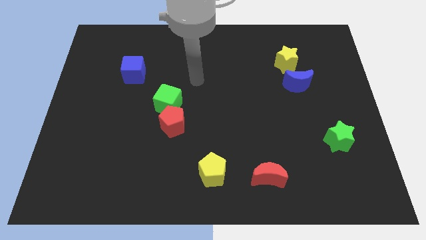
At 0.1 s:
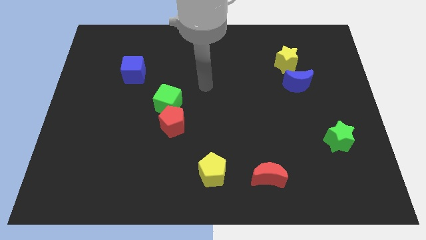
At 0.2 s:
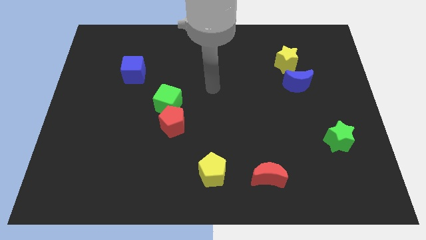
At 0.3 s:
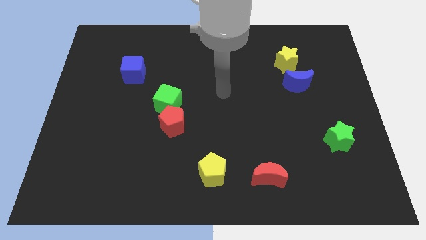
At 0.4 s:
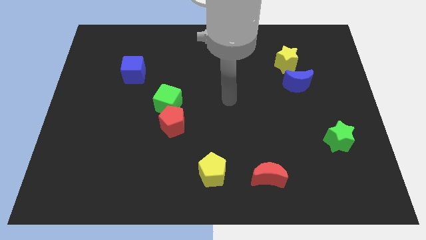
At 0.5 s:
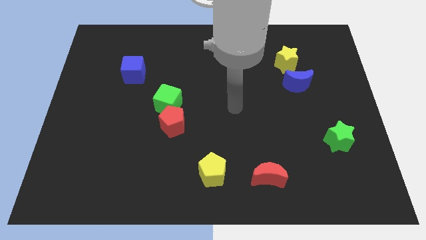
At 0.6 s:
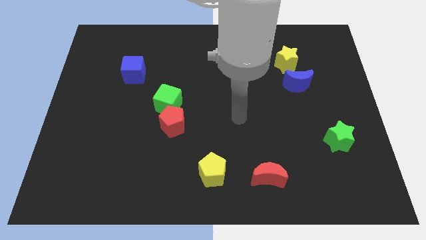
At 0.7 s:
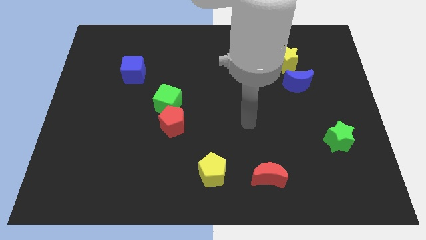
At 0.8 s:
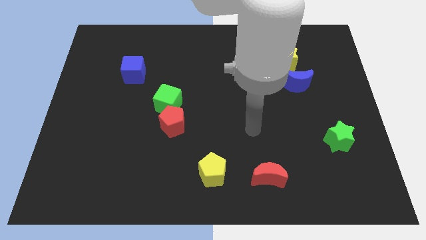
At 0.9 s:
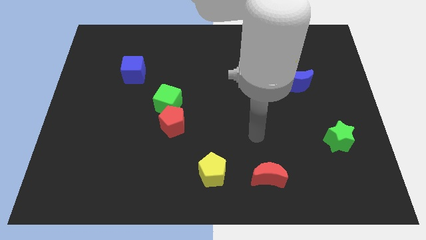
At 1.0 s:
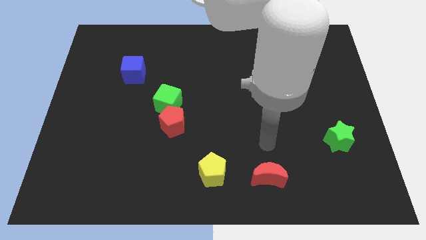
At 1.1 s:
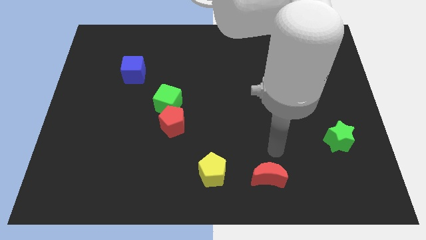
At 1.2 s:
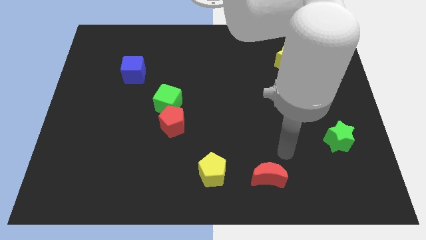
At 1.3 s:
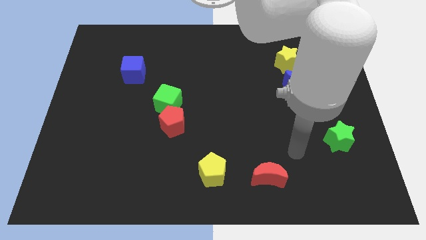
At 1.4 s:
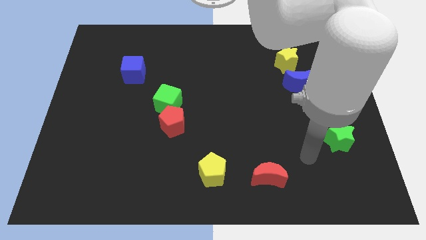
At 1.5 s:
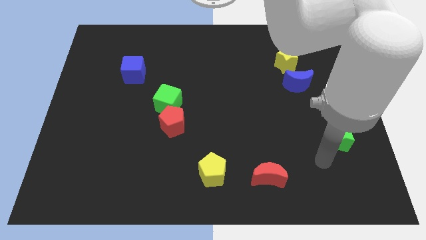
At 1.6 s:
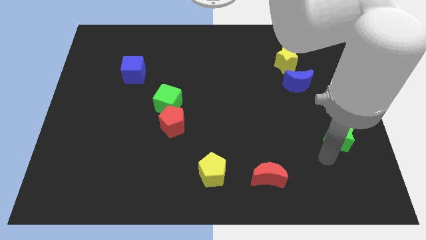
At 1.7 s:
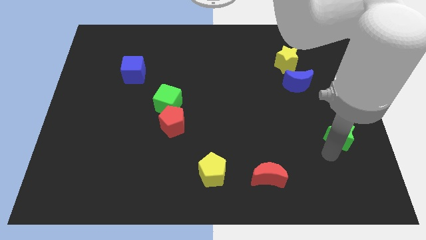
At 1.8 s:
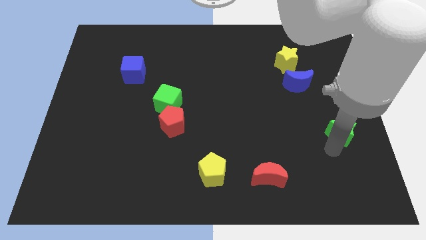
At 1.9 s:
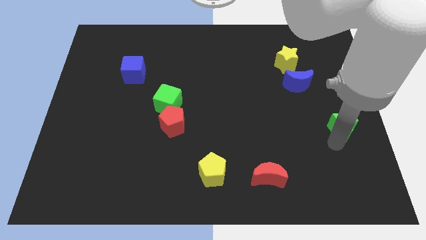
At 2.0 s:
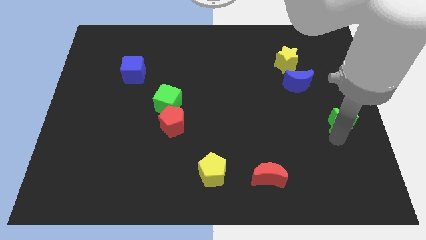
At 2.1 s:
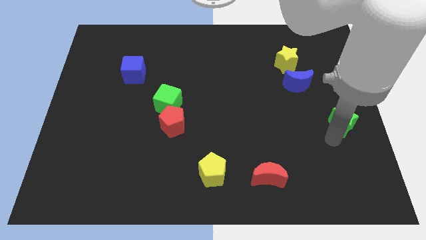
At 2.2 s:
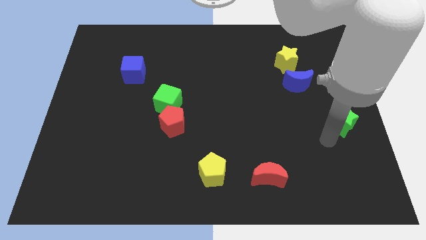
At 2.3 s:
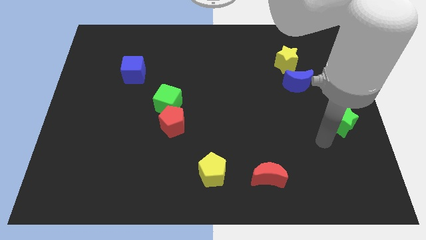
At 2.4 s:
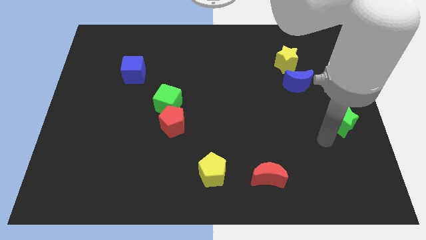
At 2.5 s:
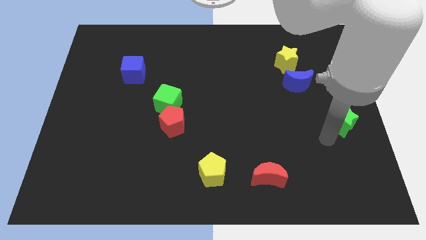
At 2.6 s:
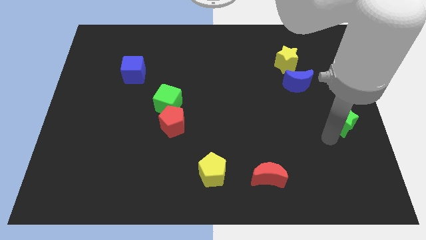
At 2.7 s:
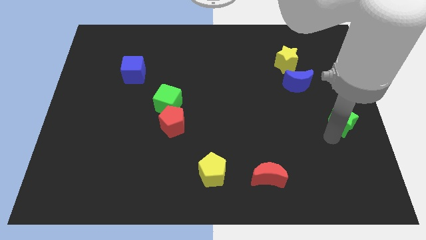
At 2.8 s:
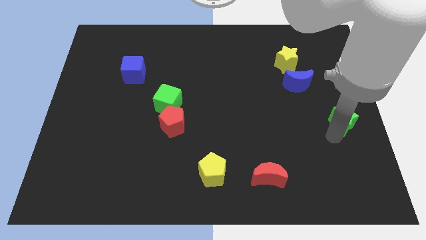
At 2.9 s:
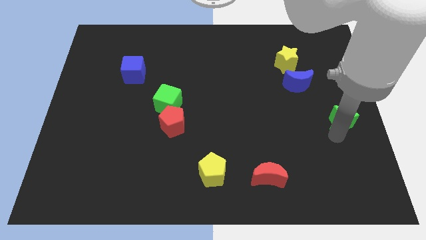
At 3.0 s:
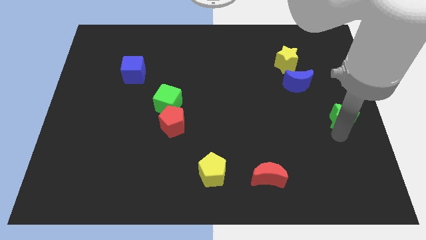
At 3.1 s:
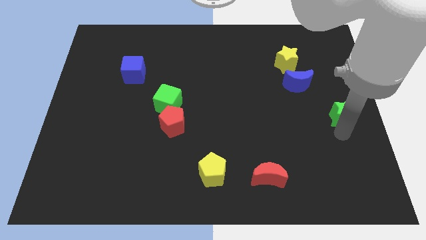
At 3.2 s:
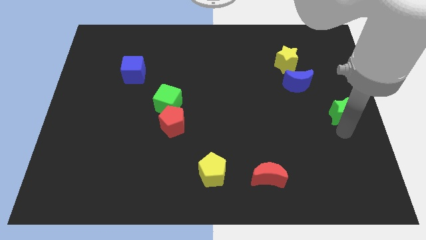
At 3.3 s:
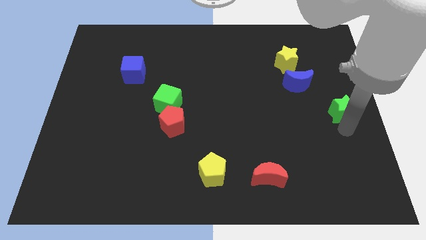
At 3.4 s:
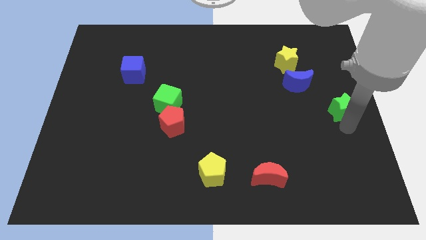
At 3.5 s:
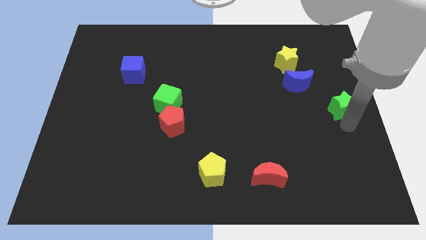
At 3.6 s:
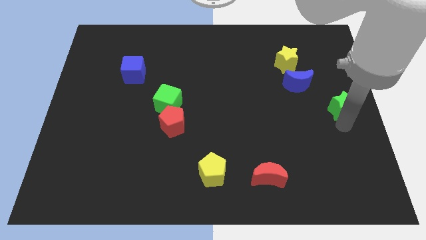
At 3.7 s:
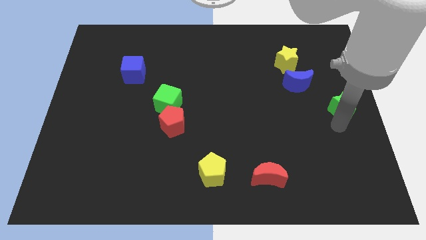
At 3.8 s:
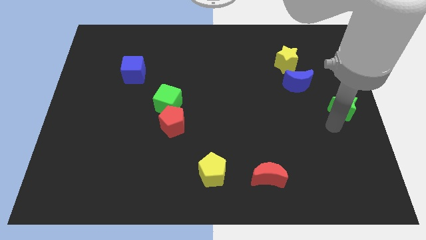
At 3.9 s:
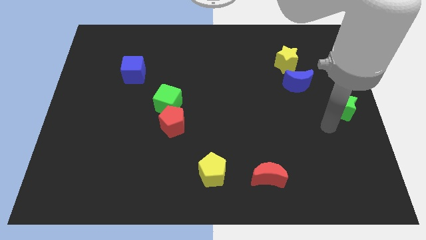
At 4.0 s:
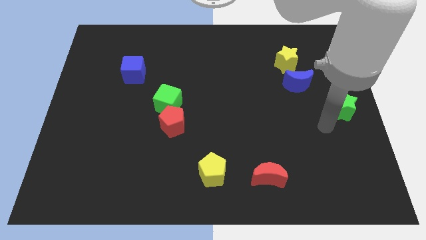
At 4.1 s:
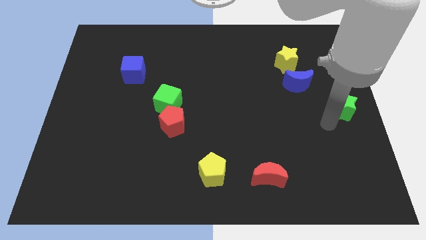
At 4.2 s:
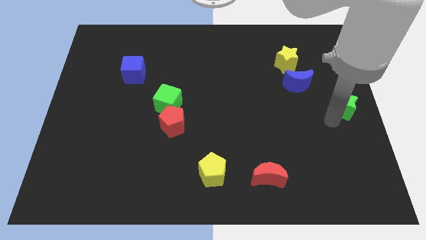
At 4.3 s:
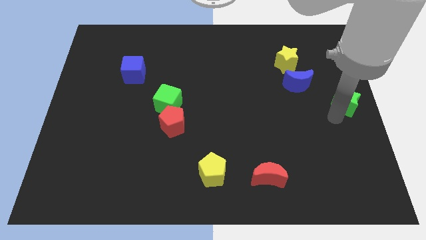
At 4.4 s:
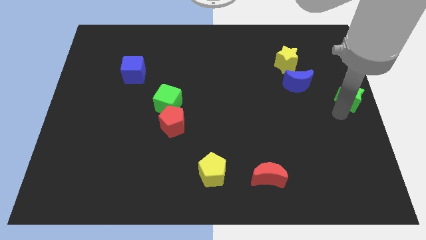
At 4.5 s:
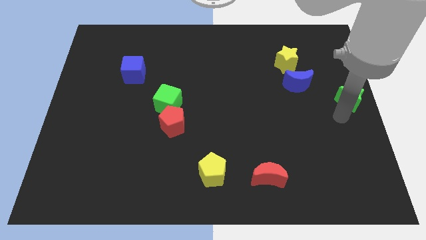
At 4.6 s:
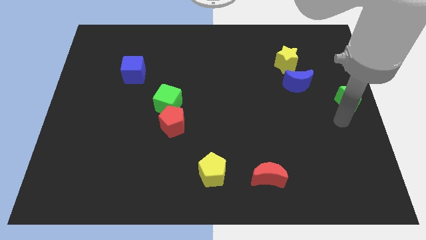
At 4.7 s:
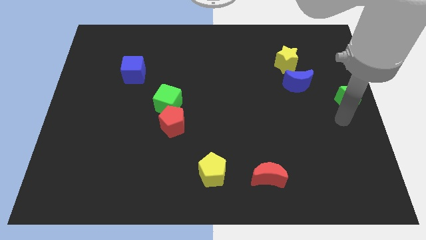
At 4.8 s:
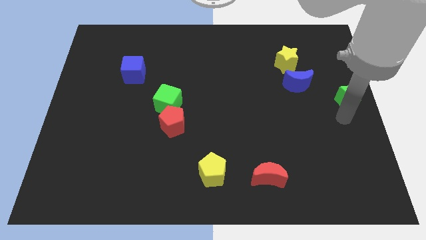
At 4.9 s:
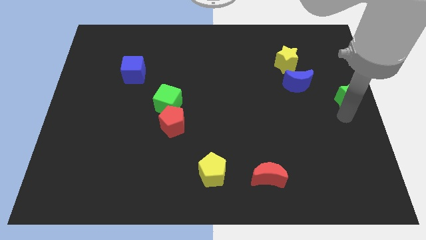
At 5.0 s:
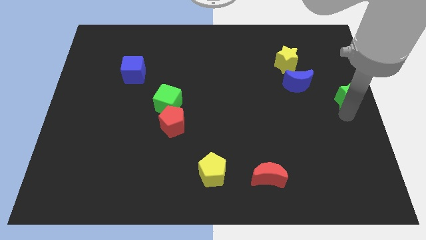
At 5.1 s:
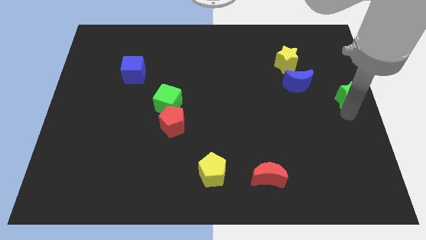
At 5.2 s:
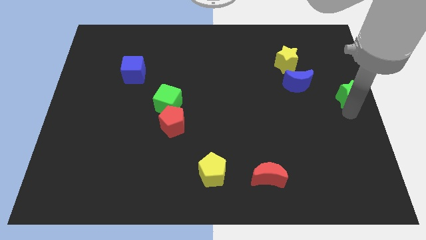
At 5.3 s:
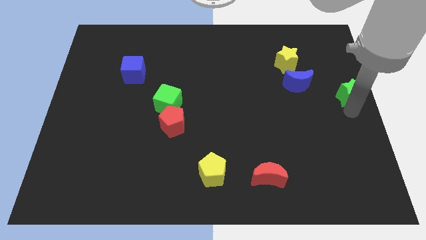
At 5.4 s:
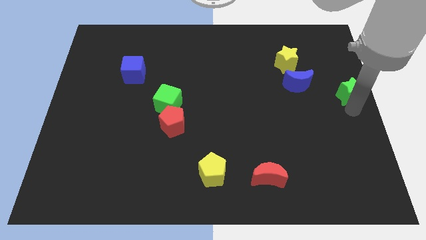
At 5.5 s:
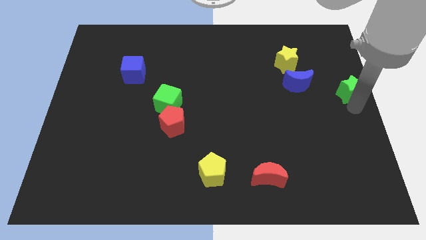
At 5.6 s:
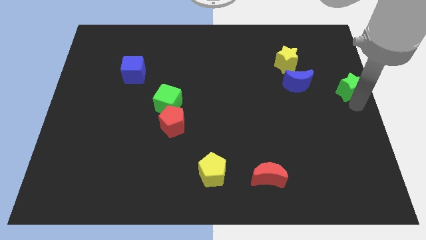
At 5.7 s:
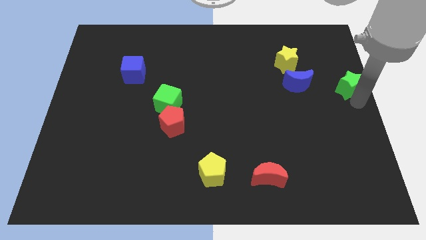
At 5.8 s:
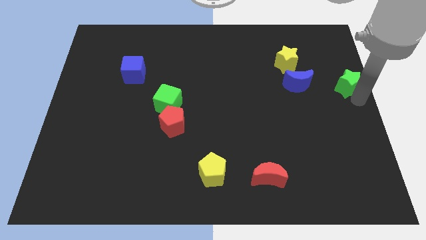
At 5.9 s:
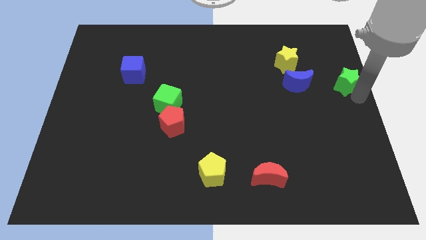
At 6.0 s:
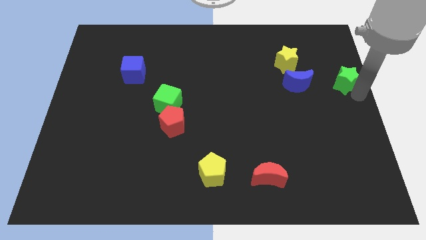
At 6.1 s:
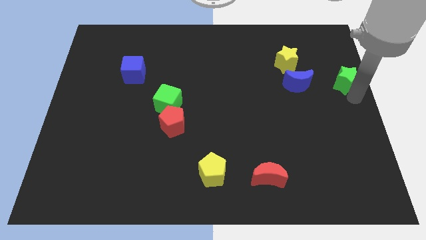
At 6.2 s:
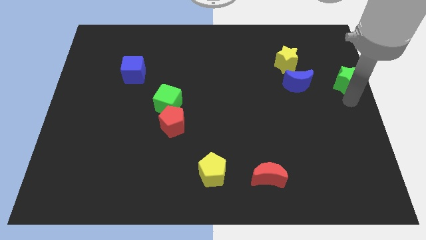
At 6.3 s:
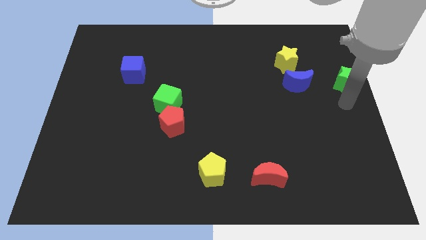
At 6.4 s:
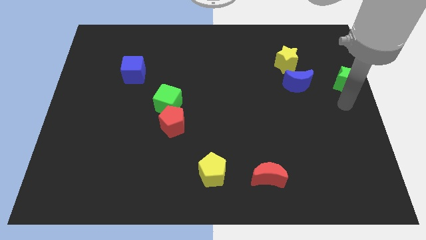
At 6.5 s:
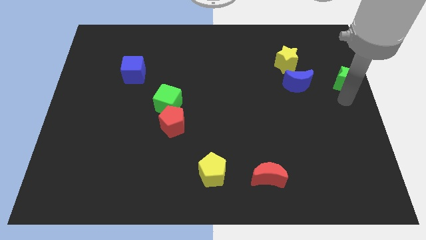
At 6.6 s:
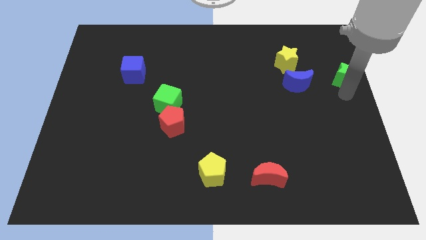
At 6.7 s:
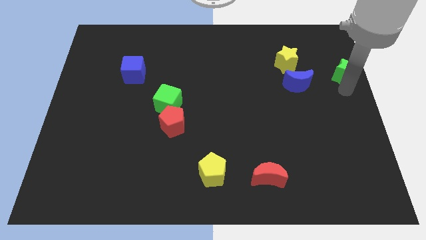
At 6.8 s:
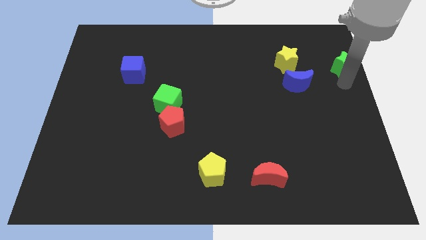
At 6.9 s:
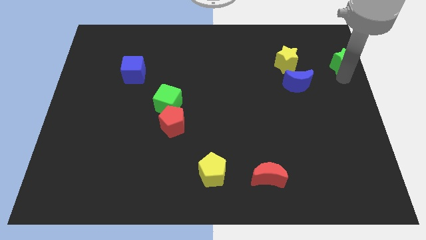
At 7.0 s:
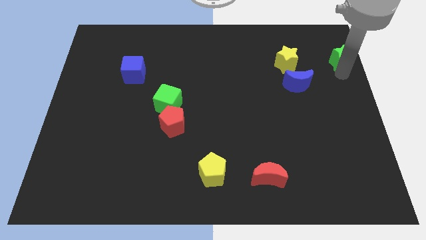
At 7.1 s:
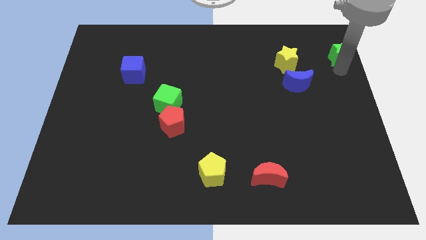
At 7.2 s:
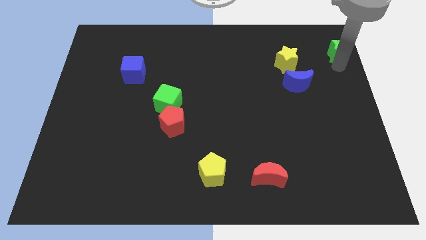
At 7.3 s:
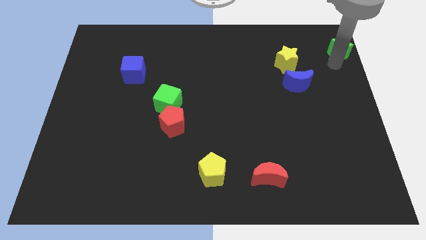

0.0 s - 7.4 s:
put the green star to the top right corner
